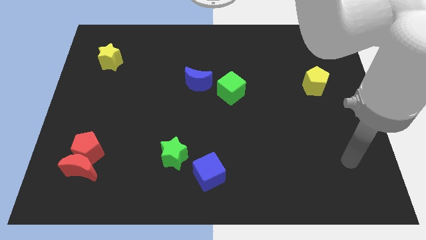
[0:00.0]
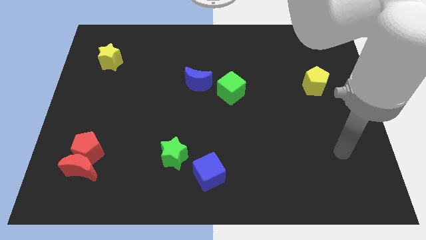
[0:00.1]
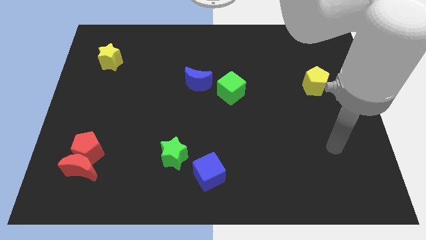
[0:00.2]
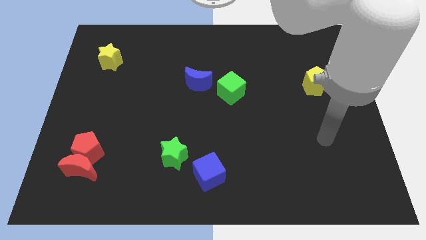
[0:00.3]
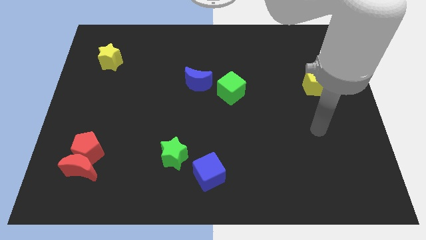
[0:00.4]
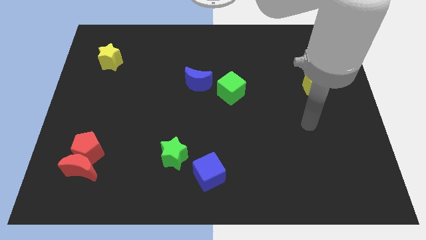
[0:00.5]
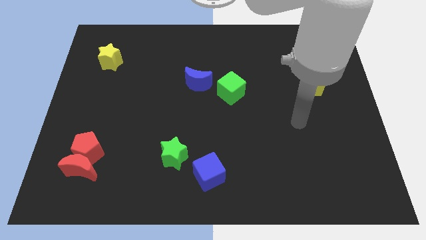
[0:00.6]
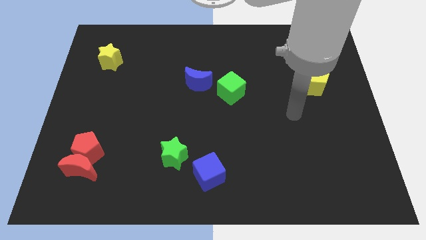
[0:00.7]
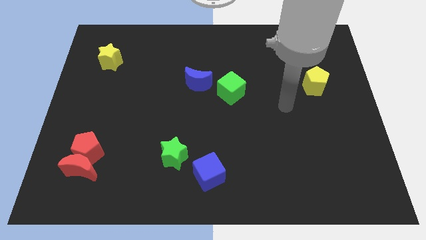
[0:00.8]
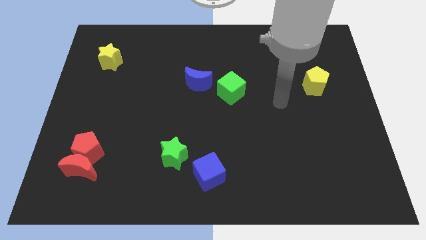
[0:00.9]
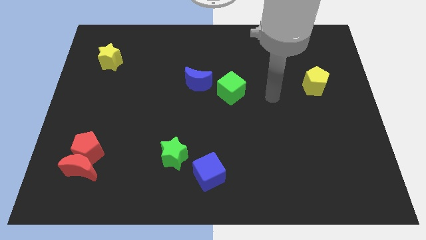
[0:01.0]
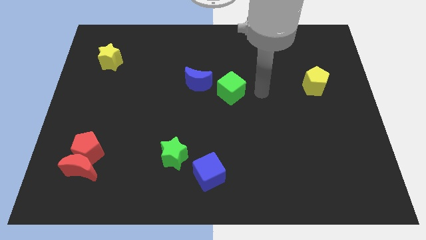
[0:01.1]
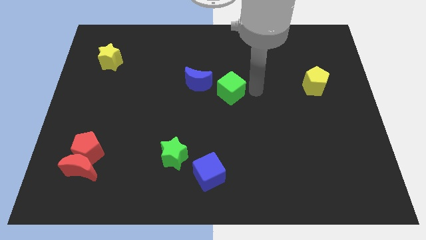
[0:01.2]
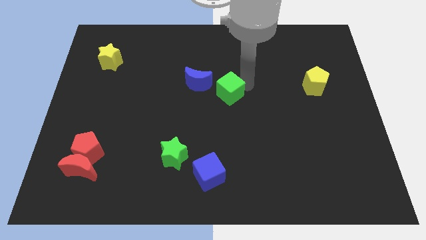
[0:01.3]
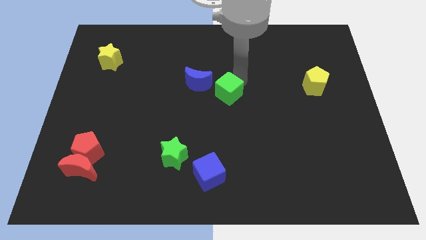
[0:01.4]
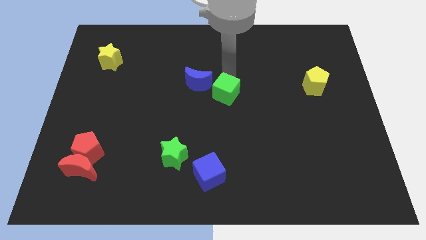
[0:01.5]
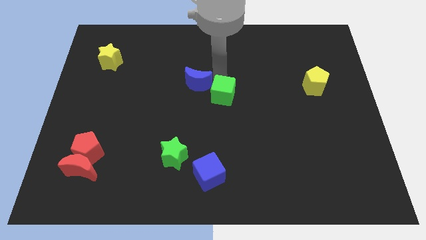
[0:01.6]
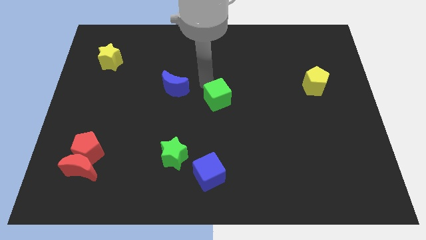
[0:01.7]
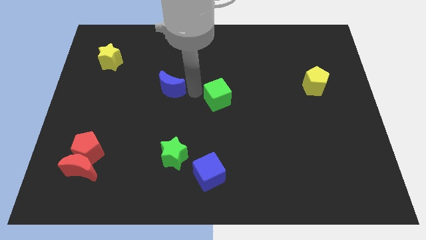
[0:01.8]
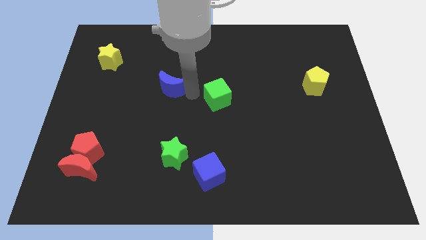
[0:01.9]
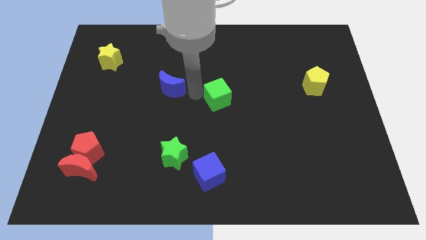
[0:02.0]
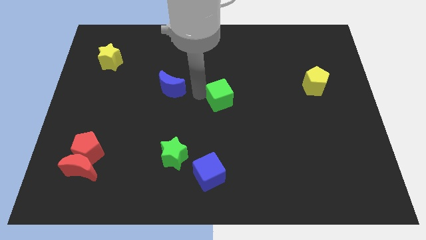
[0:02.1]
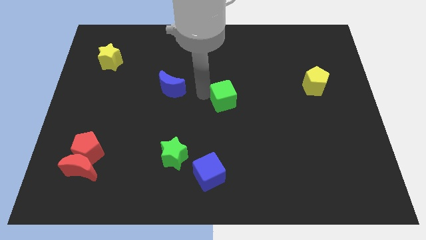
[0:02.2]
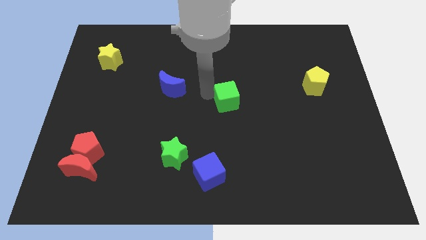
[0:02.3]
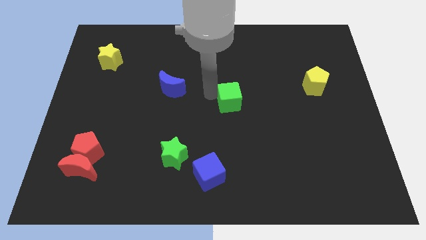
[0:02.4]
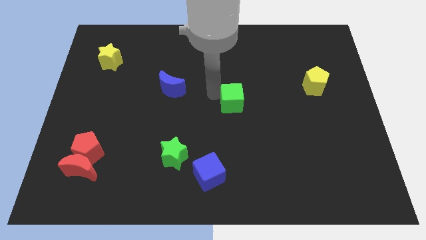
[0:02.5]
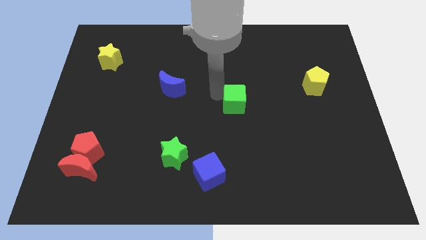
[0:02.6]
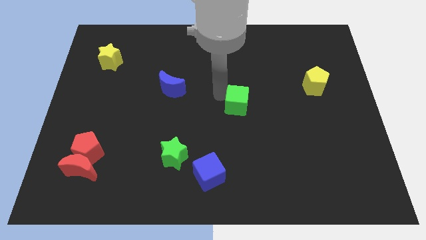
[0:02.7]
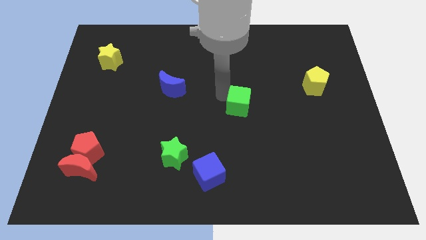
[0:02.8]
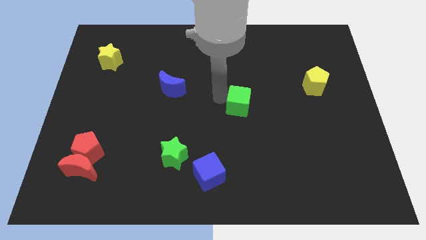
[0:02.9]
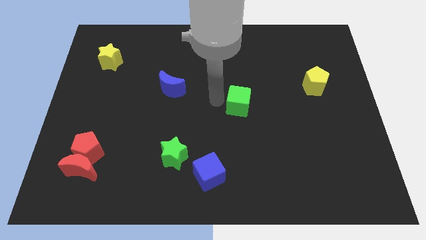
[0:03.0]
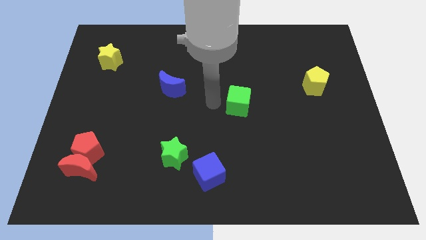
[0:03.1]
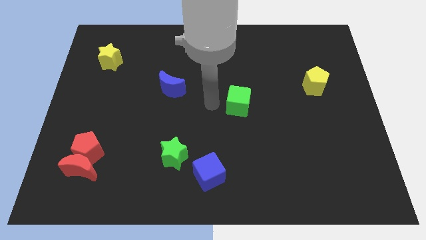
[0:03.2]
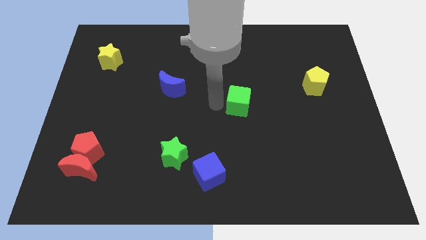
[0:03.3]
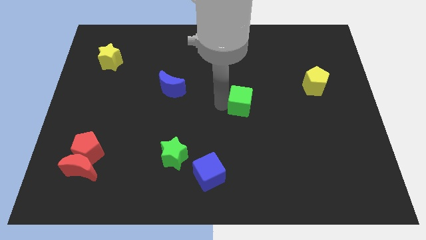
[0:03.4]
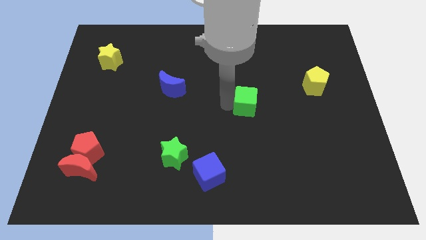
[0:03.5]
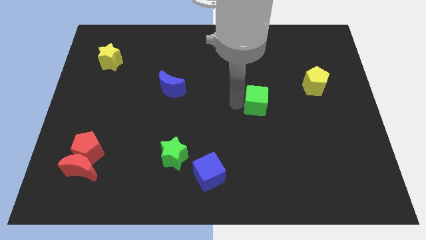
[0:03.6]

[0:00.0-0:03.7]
push the green cube downwards and then right a little

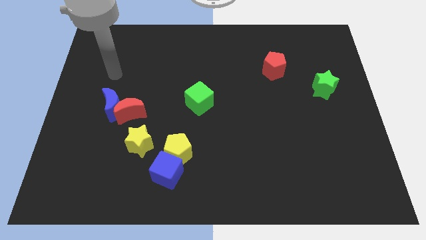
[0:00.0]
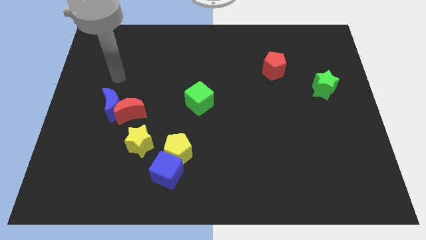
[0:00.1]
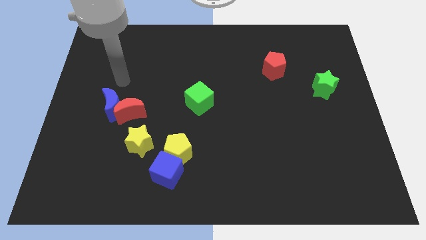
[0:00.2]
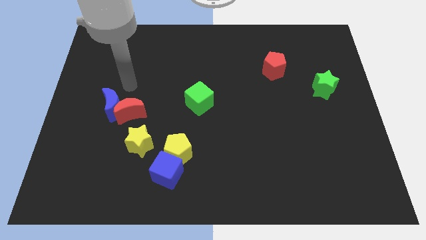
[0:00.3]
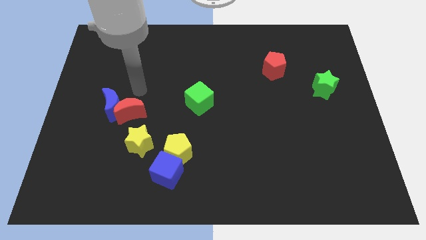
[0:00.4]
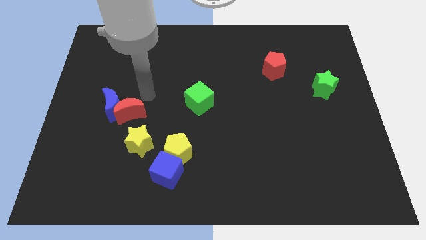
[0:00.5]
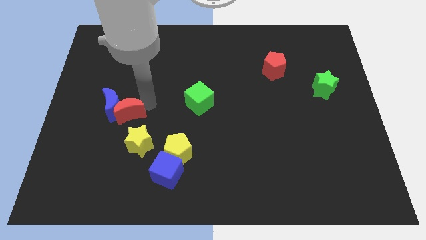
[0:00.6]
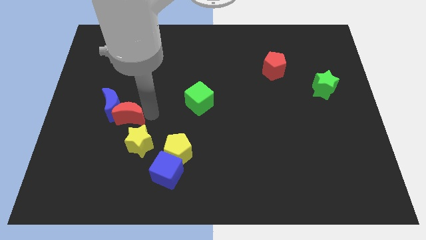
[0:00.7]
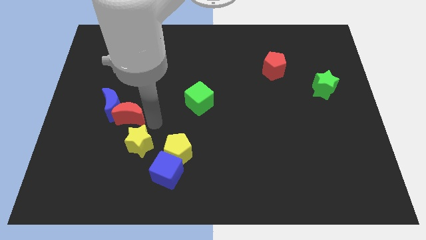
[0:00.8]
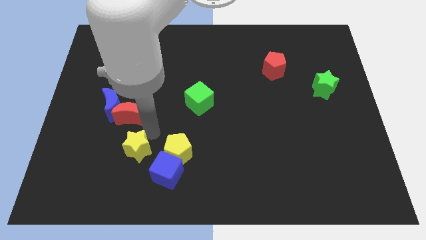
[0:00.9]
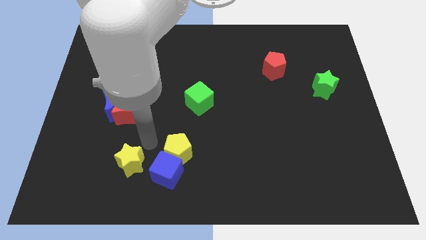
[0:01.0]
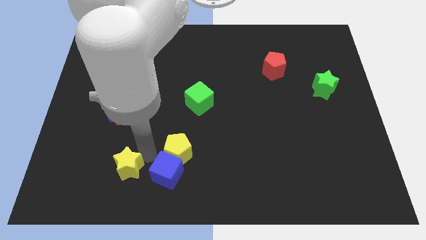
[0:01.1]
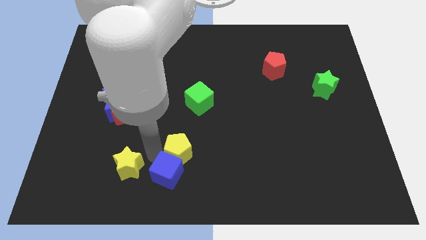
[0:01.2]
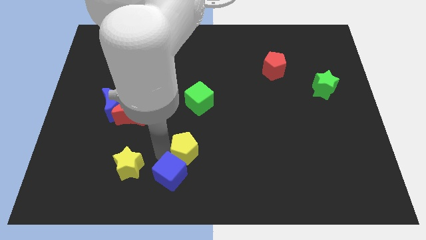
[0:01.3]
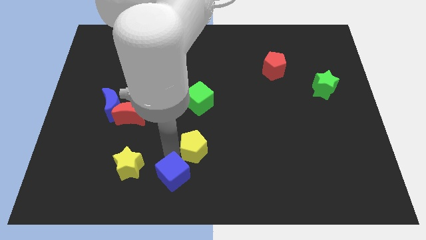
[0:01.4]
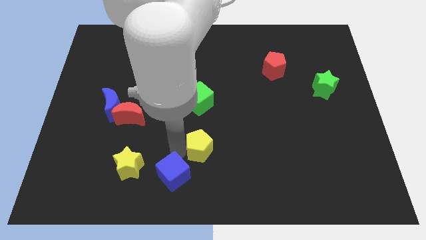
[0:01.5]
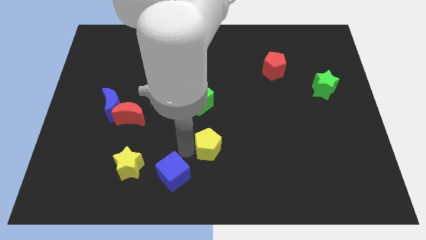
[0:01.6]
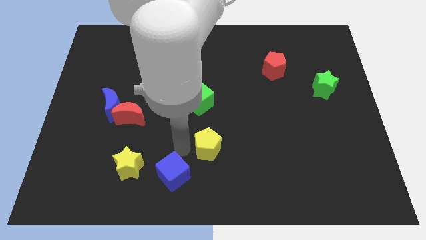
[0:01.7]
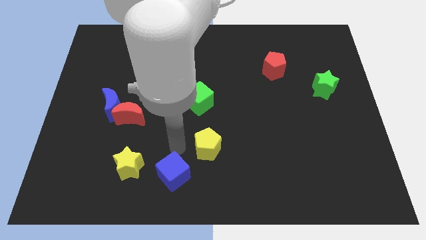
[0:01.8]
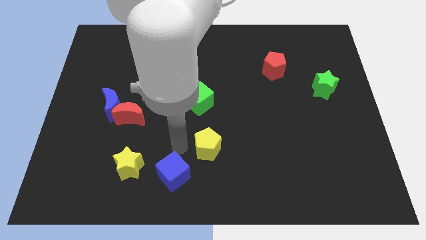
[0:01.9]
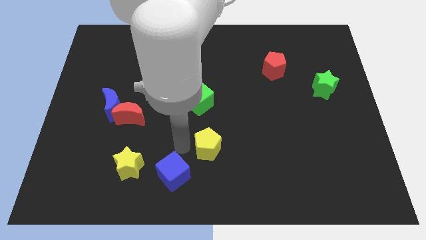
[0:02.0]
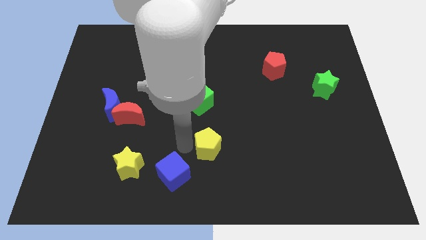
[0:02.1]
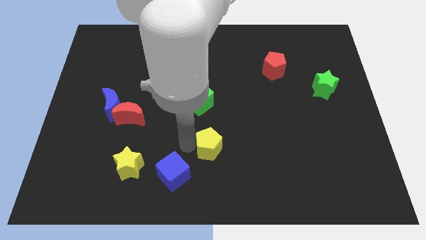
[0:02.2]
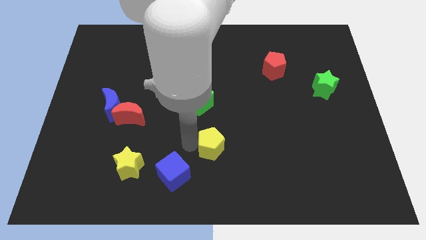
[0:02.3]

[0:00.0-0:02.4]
slide the yellow pentagon slightly to the right

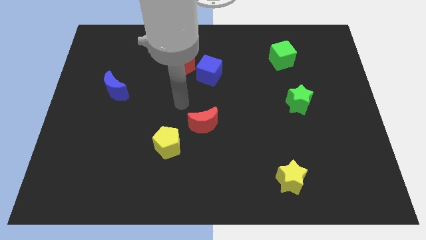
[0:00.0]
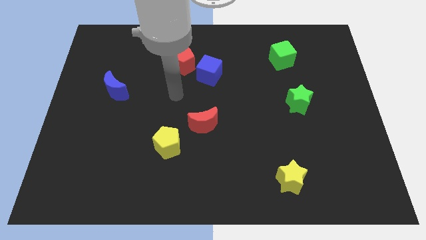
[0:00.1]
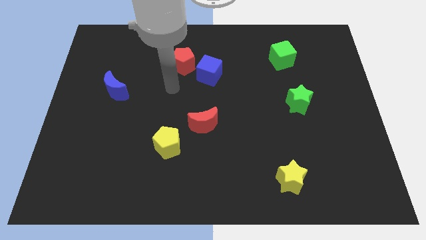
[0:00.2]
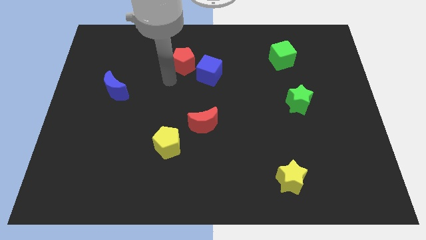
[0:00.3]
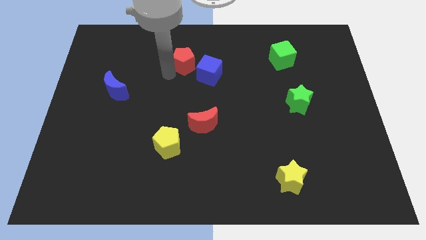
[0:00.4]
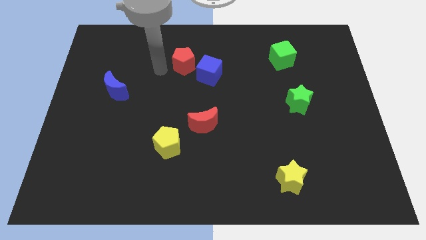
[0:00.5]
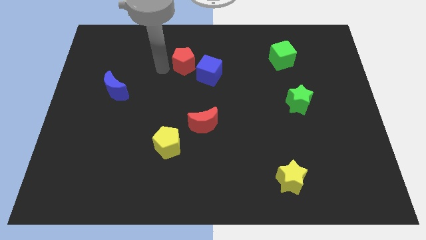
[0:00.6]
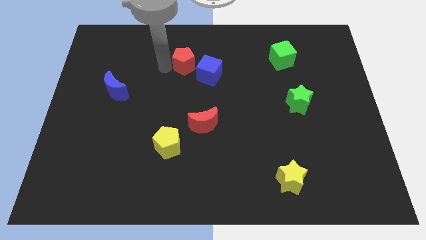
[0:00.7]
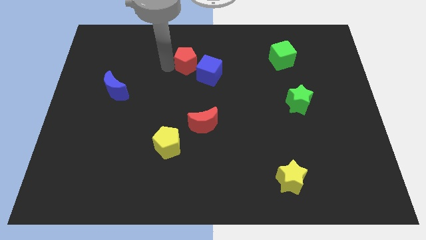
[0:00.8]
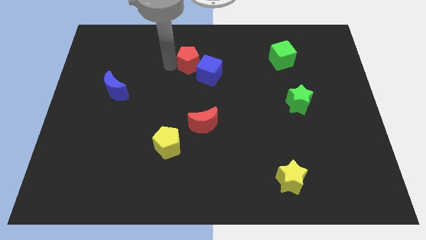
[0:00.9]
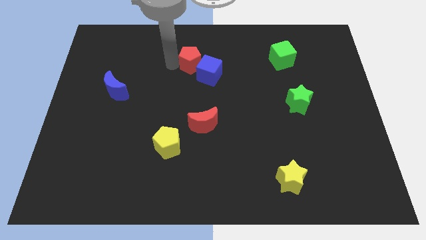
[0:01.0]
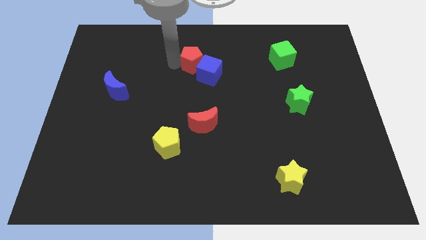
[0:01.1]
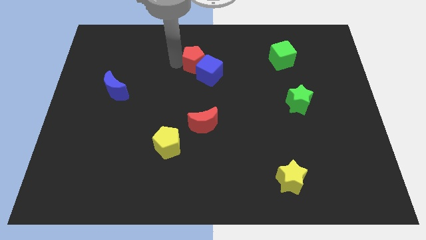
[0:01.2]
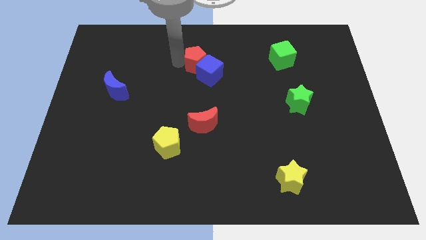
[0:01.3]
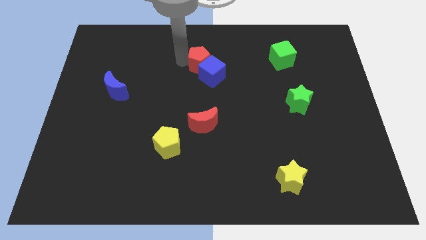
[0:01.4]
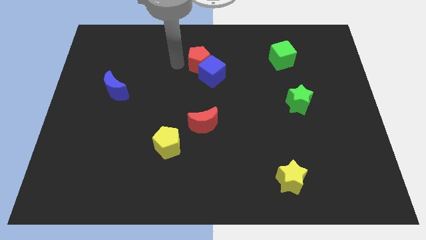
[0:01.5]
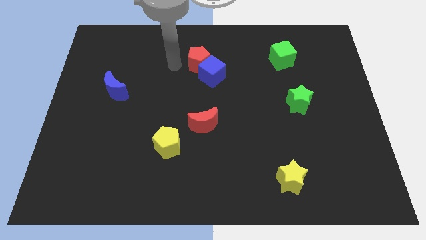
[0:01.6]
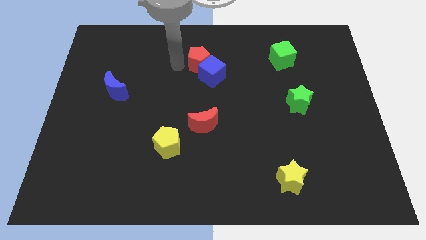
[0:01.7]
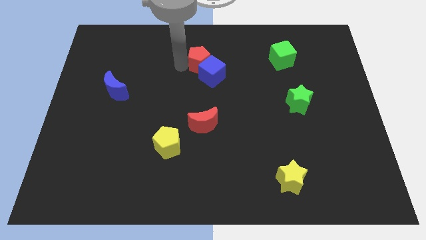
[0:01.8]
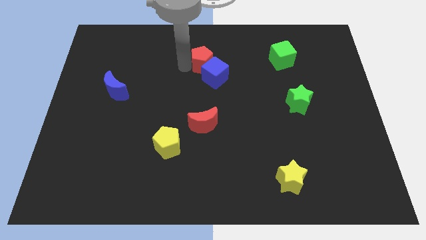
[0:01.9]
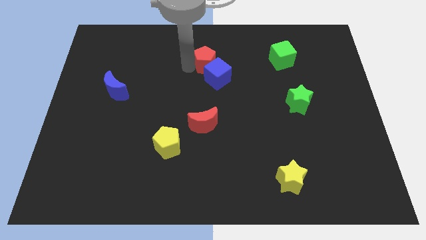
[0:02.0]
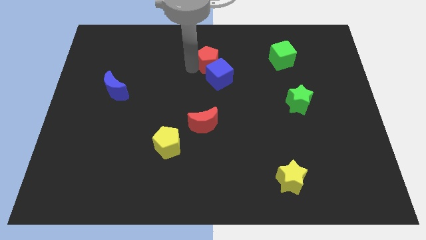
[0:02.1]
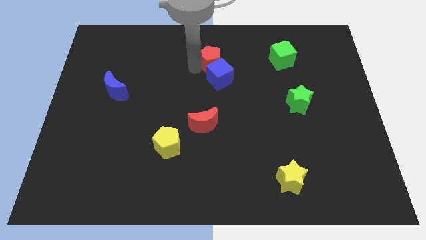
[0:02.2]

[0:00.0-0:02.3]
slide the red pentagon right a little bit
